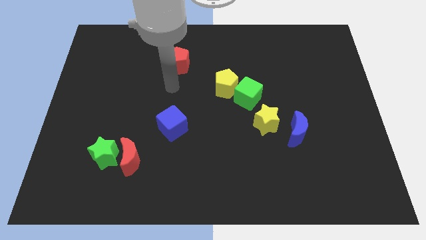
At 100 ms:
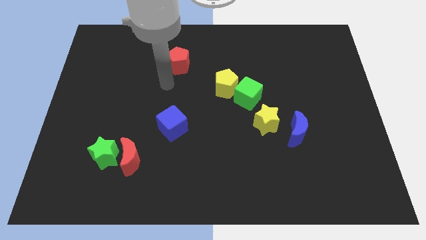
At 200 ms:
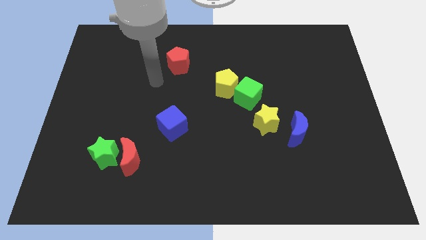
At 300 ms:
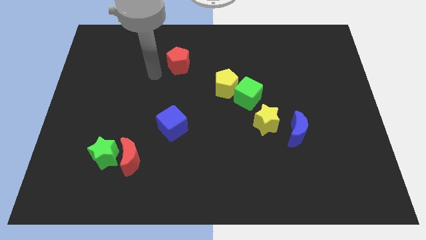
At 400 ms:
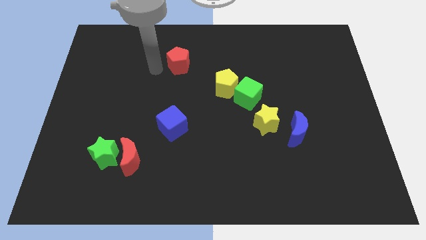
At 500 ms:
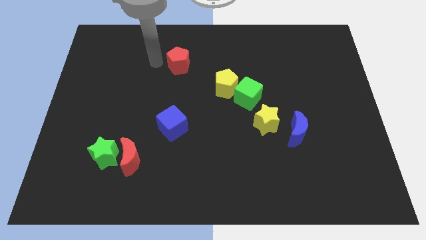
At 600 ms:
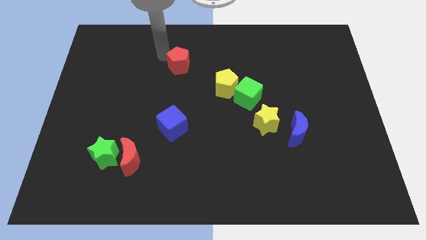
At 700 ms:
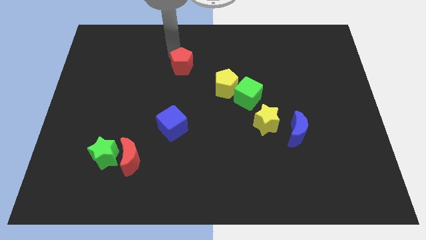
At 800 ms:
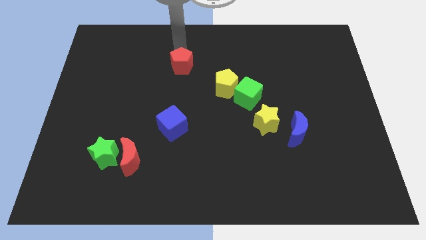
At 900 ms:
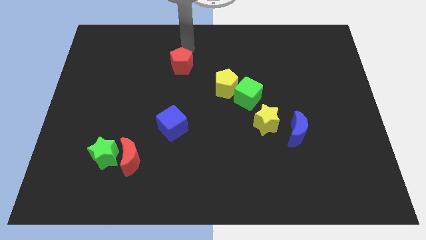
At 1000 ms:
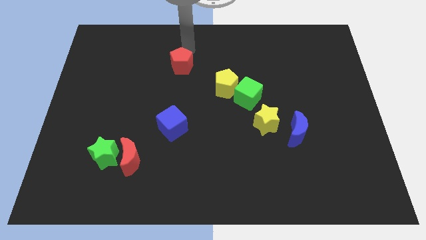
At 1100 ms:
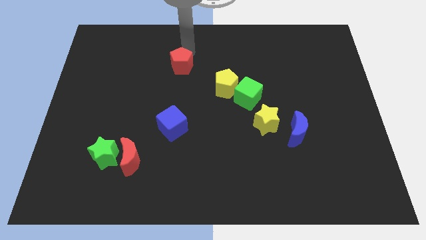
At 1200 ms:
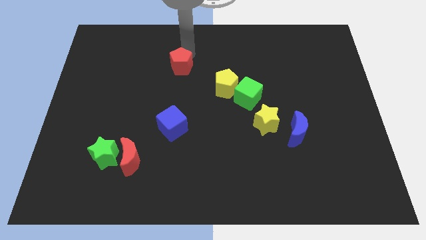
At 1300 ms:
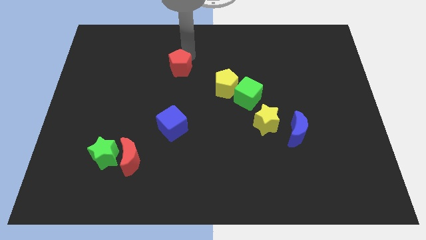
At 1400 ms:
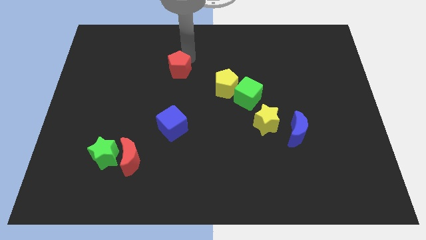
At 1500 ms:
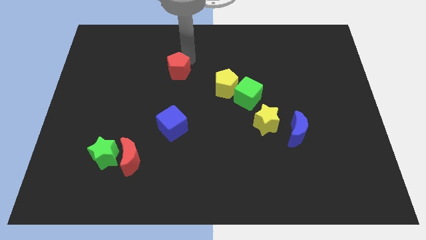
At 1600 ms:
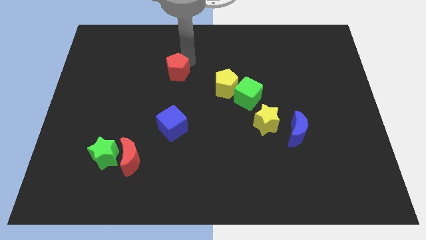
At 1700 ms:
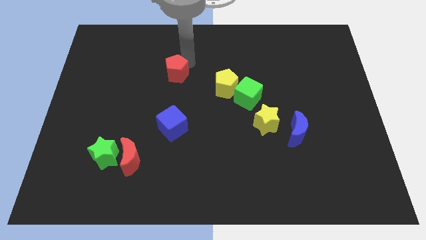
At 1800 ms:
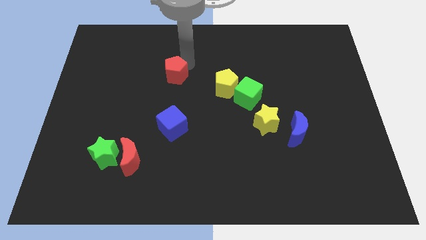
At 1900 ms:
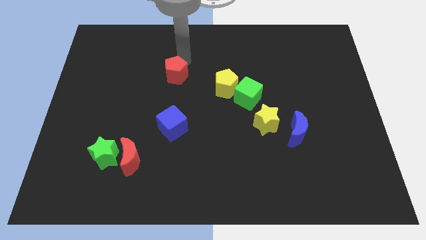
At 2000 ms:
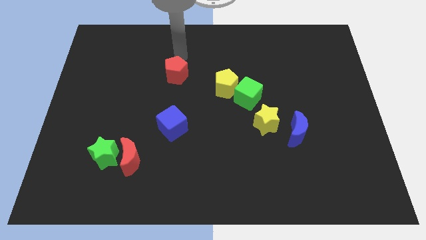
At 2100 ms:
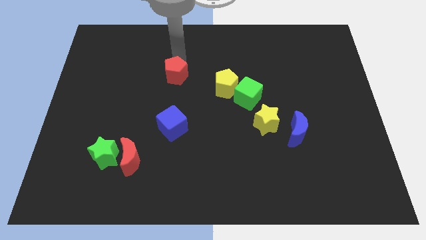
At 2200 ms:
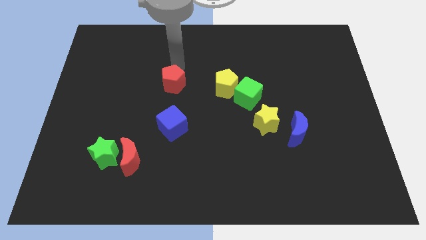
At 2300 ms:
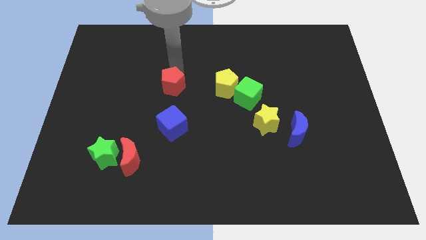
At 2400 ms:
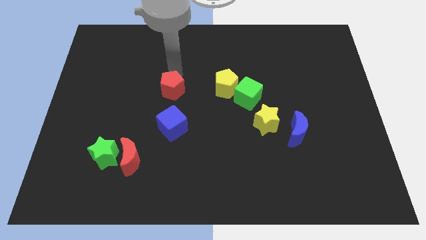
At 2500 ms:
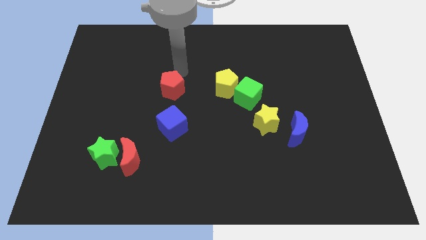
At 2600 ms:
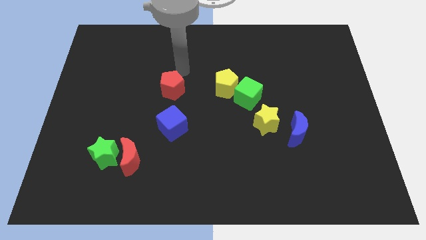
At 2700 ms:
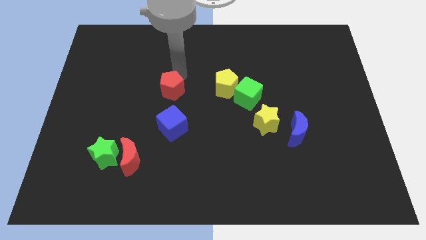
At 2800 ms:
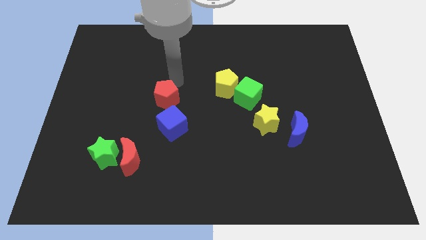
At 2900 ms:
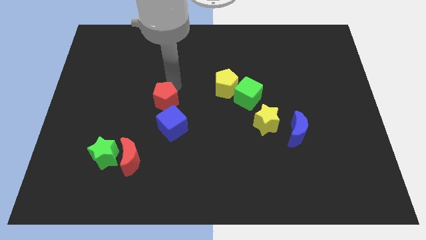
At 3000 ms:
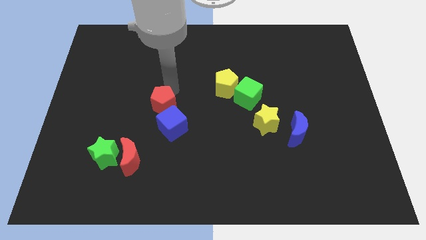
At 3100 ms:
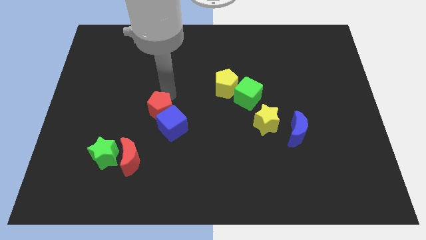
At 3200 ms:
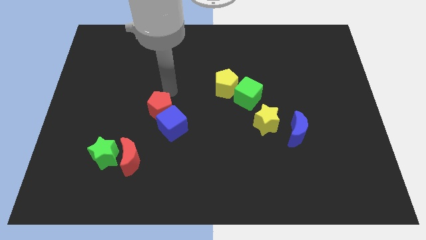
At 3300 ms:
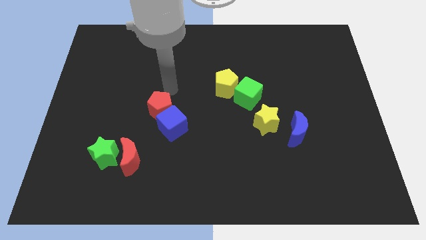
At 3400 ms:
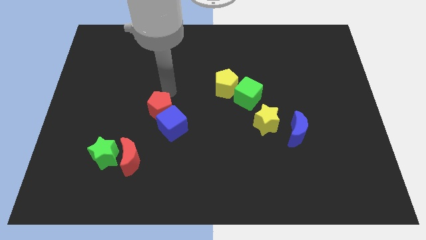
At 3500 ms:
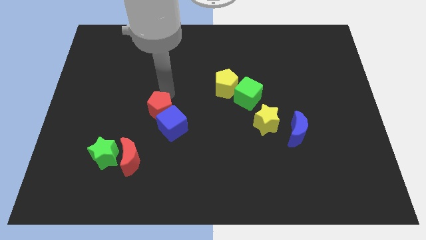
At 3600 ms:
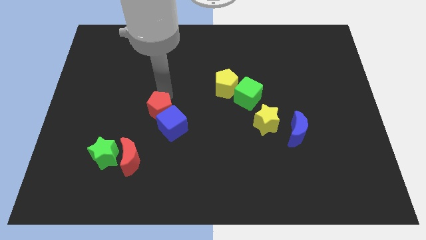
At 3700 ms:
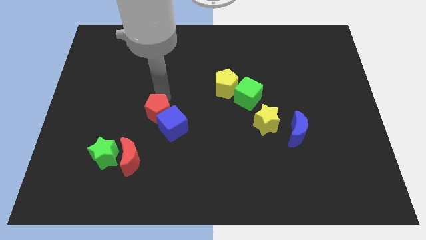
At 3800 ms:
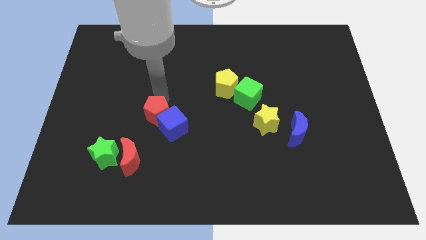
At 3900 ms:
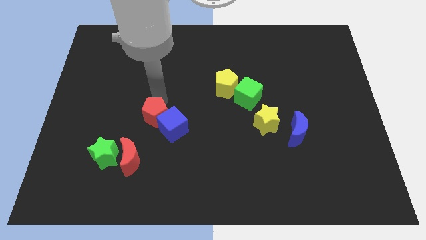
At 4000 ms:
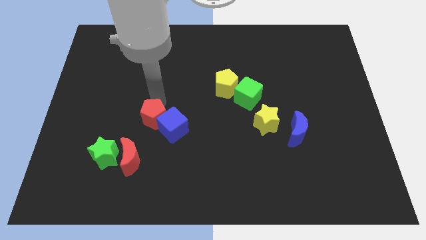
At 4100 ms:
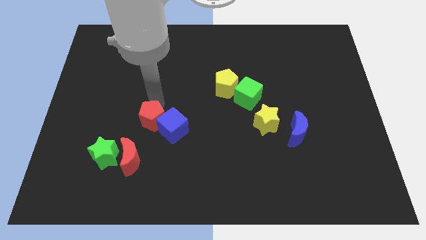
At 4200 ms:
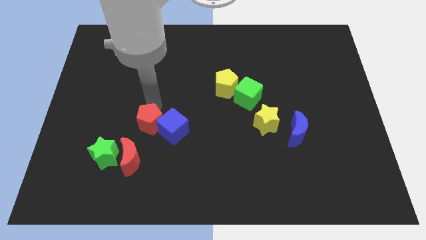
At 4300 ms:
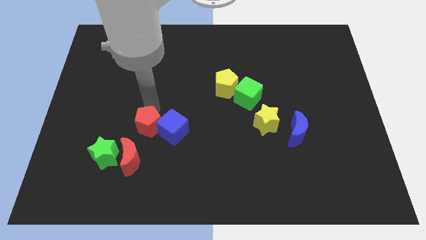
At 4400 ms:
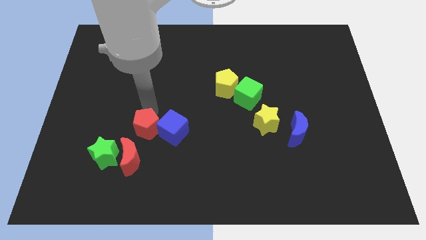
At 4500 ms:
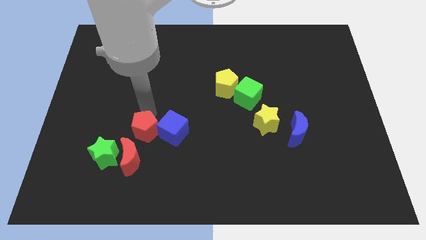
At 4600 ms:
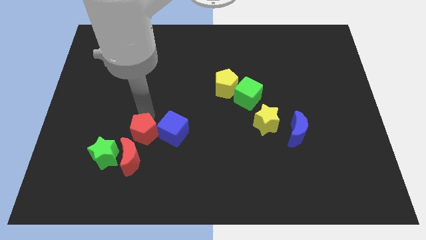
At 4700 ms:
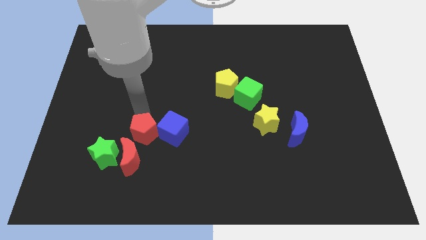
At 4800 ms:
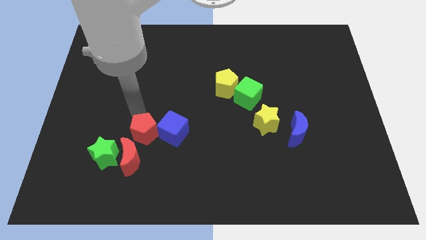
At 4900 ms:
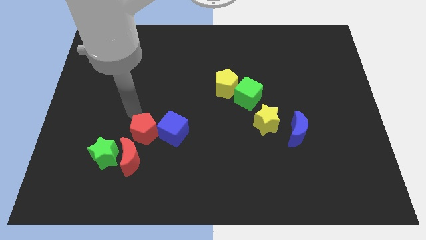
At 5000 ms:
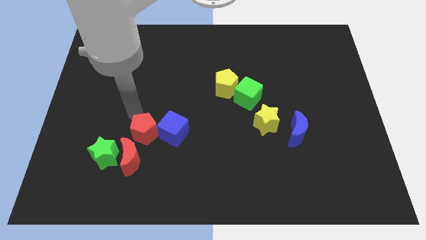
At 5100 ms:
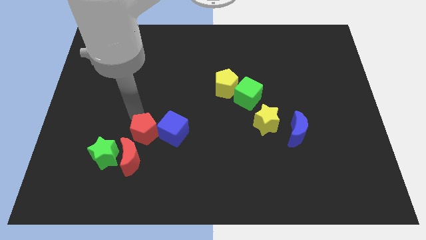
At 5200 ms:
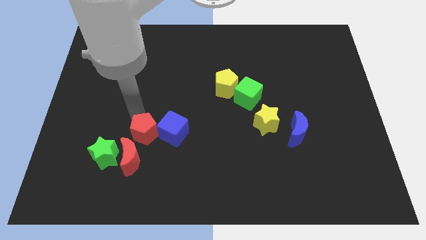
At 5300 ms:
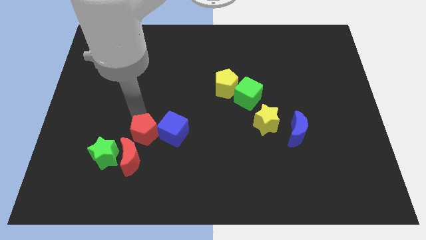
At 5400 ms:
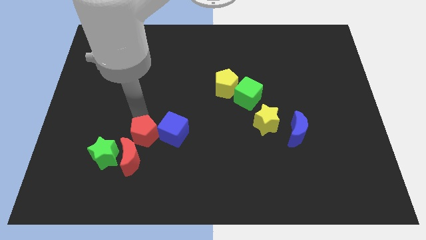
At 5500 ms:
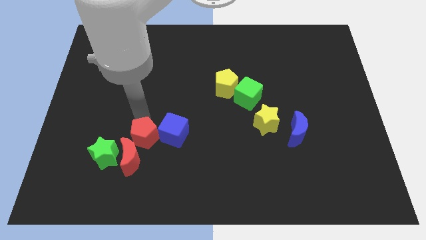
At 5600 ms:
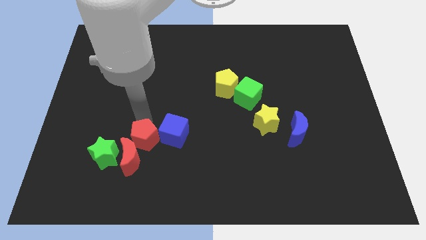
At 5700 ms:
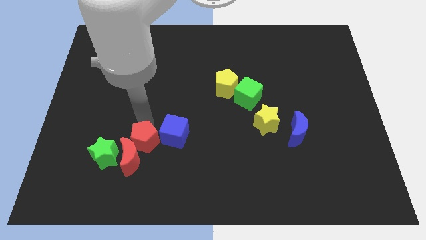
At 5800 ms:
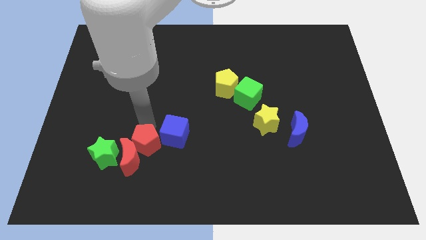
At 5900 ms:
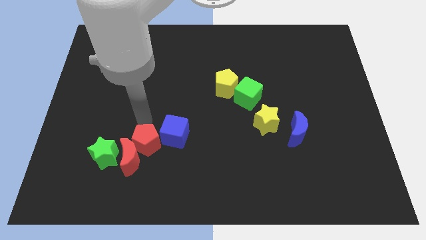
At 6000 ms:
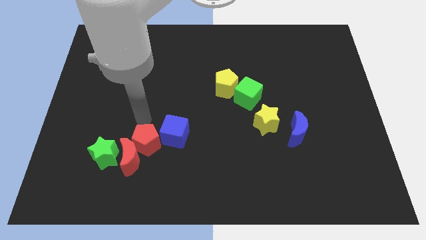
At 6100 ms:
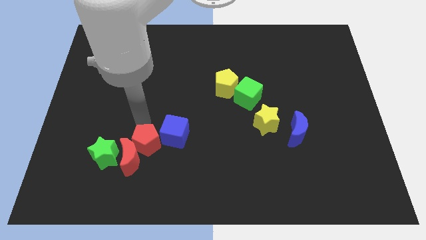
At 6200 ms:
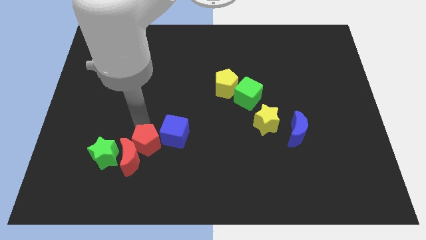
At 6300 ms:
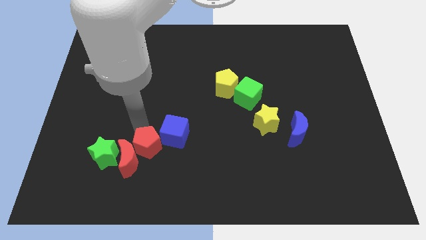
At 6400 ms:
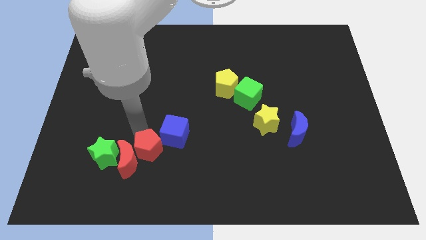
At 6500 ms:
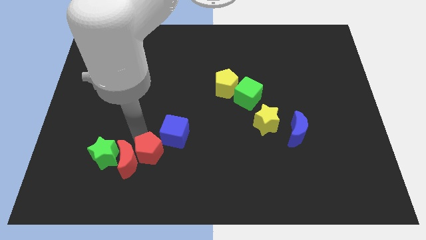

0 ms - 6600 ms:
slide the red pentagon to the bottom right side of the red moon

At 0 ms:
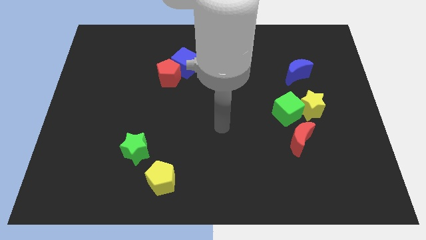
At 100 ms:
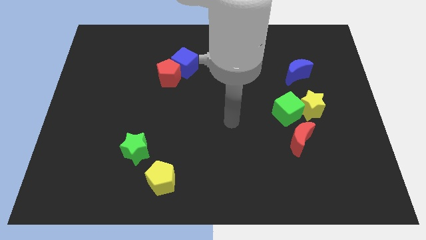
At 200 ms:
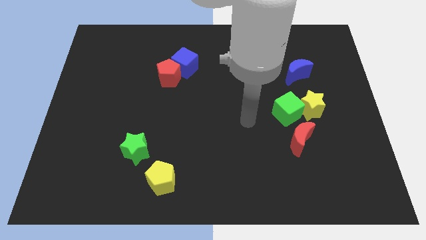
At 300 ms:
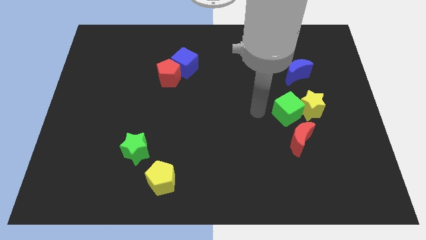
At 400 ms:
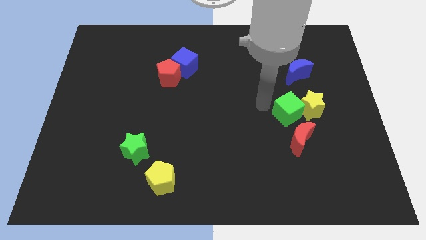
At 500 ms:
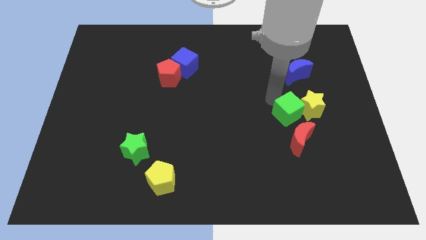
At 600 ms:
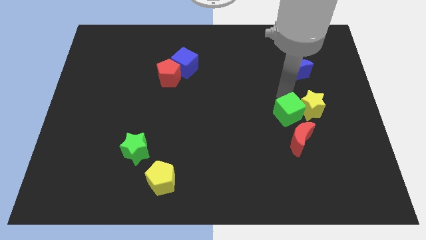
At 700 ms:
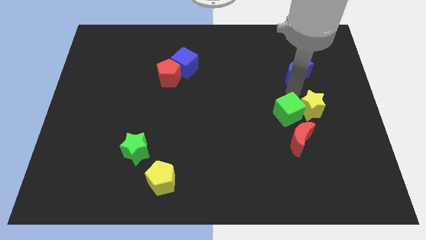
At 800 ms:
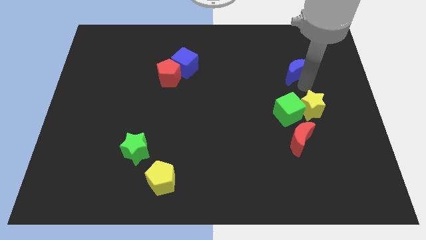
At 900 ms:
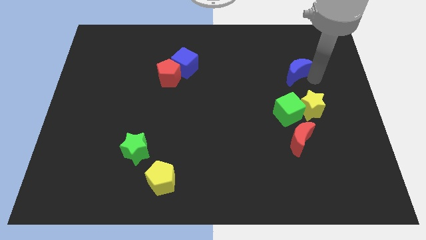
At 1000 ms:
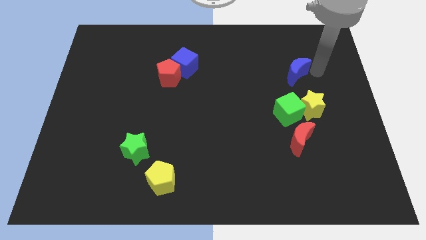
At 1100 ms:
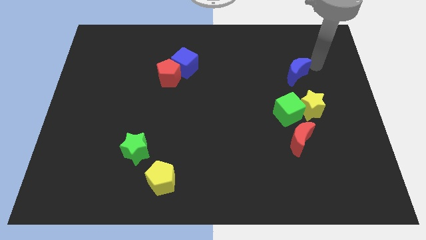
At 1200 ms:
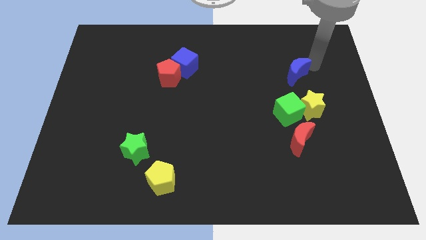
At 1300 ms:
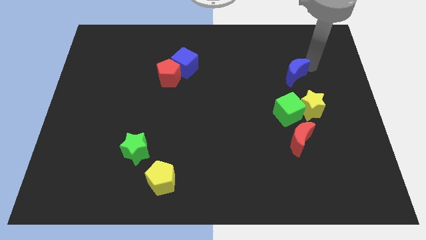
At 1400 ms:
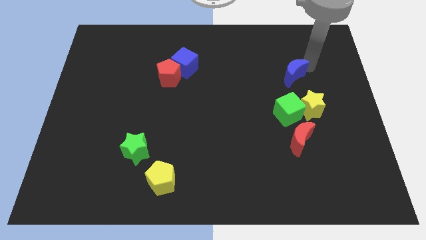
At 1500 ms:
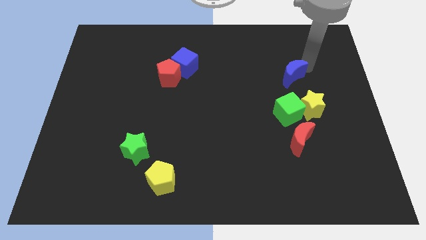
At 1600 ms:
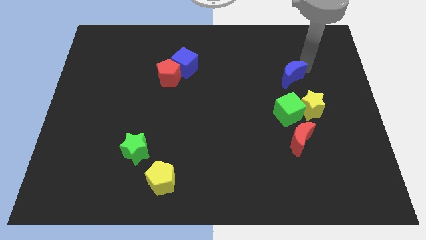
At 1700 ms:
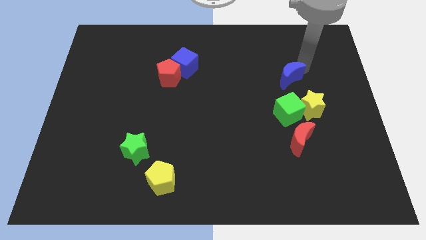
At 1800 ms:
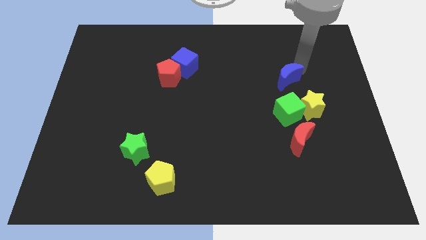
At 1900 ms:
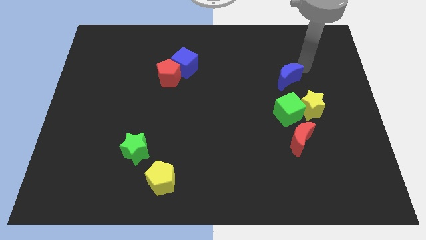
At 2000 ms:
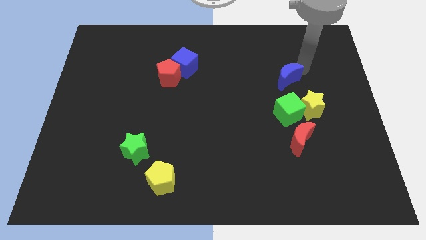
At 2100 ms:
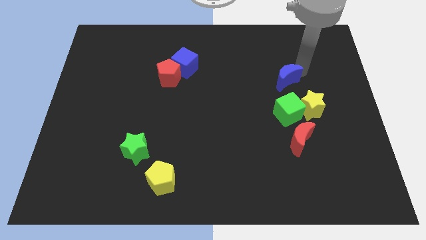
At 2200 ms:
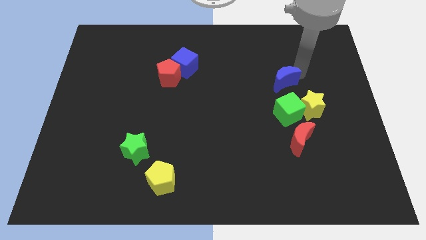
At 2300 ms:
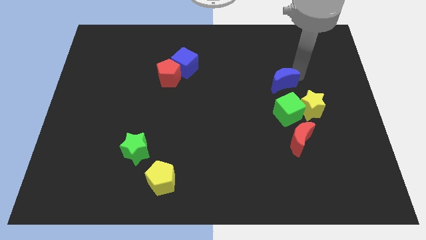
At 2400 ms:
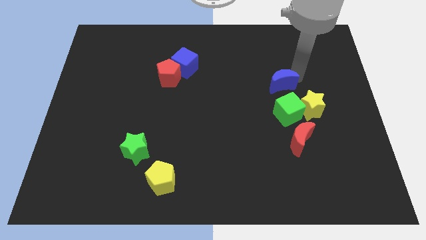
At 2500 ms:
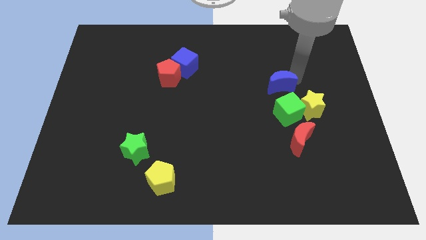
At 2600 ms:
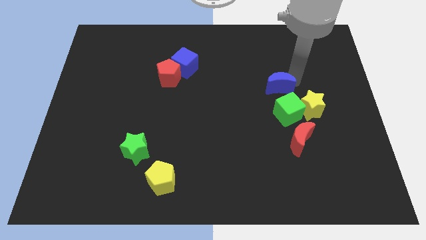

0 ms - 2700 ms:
move the blue moon to the top left of the green cube
